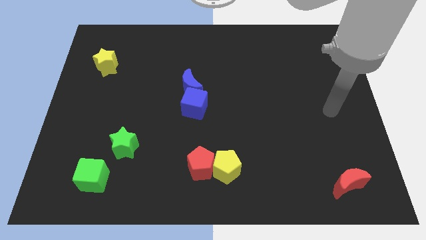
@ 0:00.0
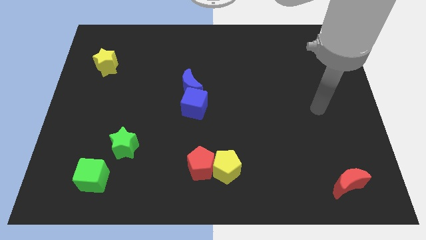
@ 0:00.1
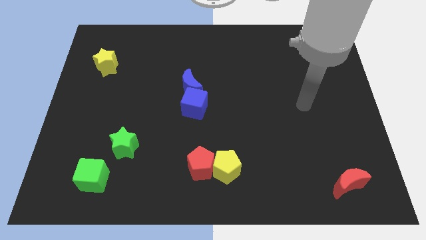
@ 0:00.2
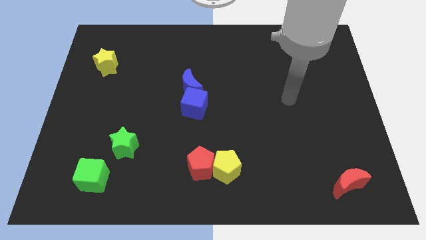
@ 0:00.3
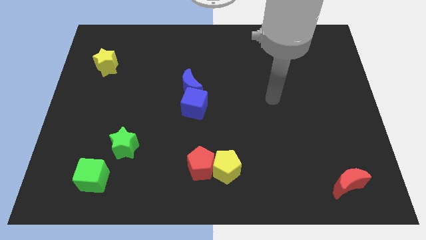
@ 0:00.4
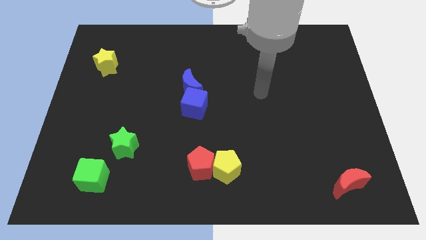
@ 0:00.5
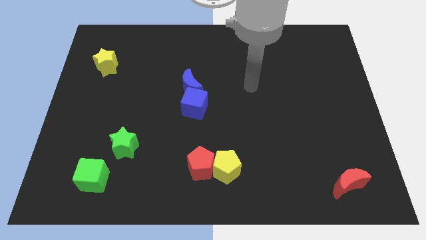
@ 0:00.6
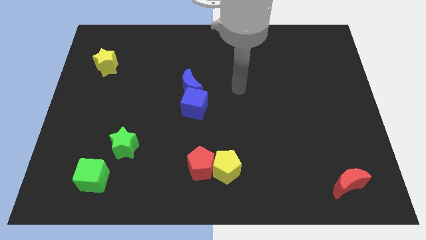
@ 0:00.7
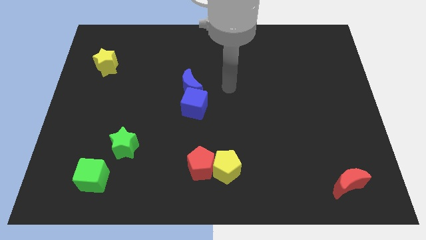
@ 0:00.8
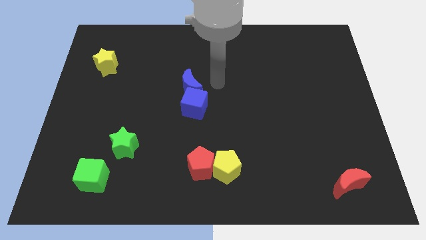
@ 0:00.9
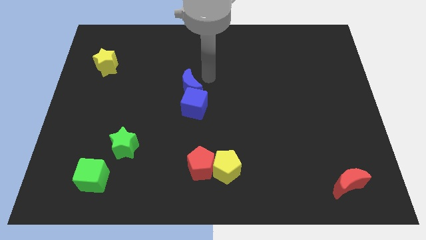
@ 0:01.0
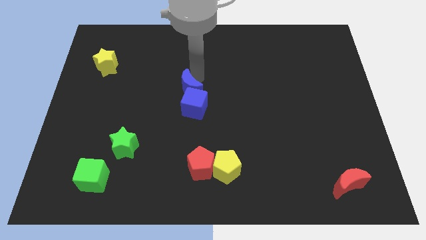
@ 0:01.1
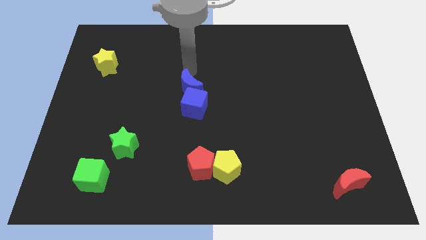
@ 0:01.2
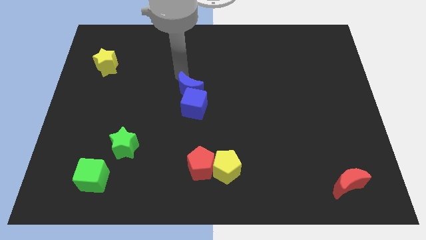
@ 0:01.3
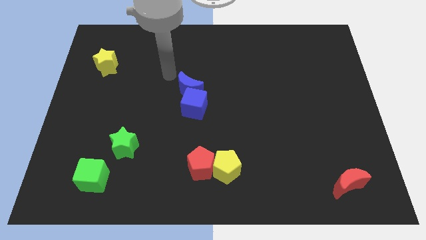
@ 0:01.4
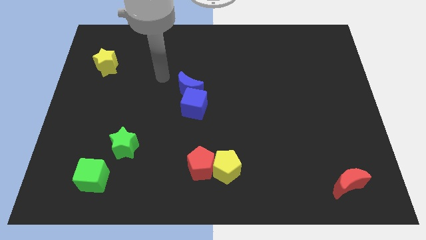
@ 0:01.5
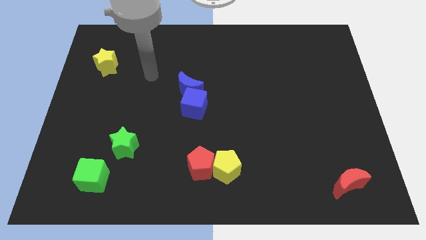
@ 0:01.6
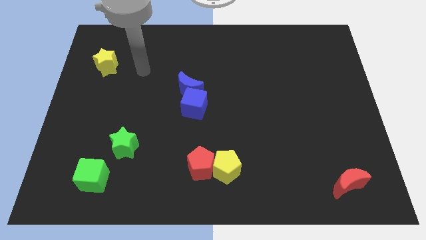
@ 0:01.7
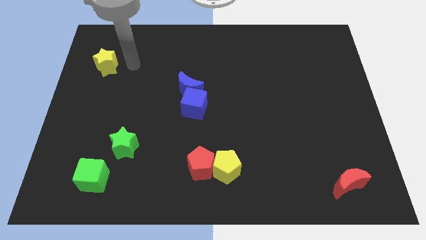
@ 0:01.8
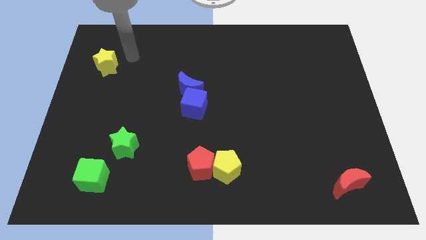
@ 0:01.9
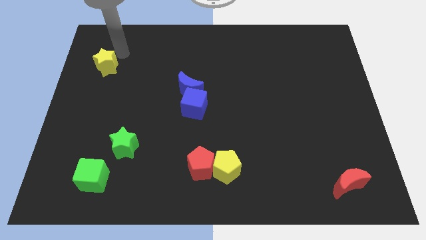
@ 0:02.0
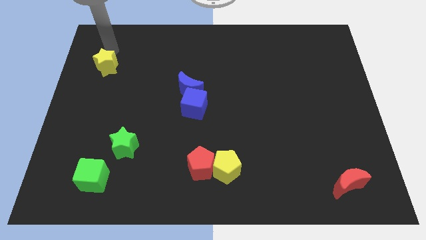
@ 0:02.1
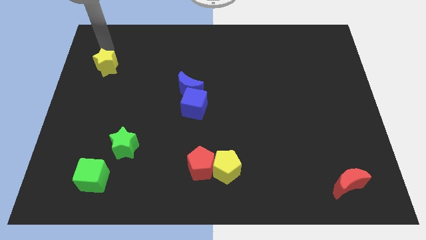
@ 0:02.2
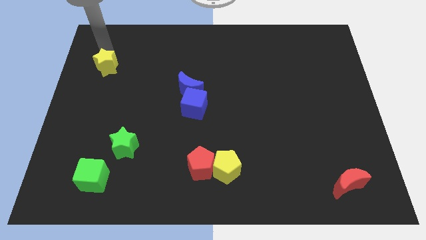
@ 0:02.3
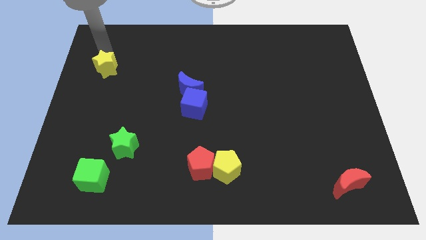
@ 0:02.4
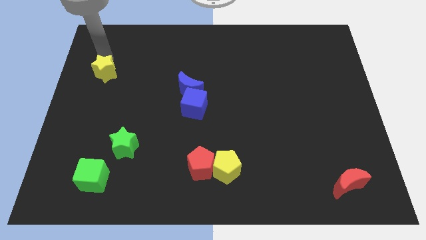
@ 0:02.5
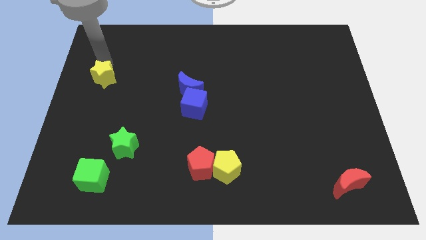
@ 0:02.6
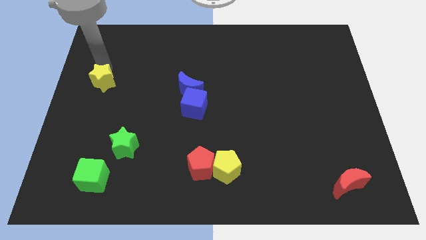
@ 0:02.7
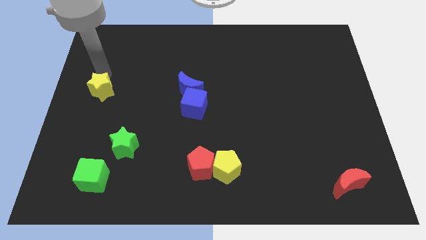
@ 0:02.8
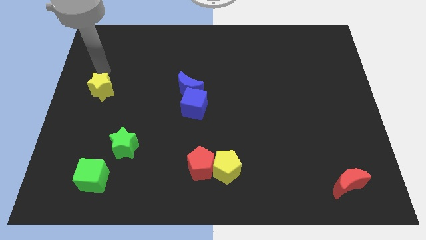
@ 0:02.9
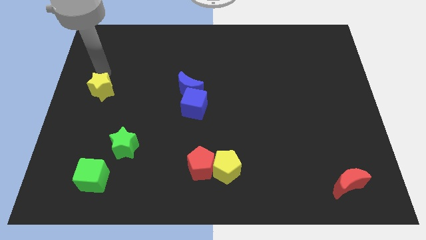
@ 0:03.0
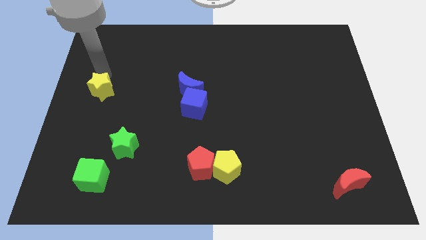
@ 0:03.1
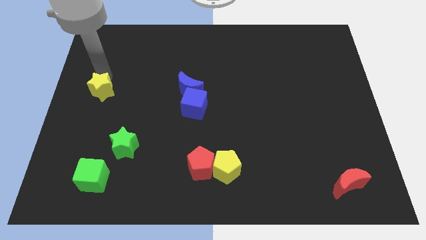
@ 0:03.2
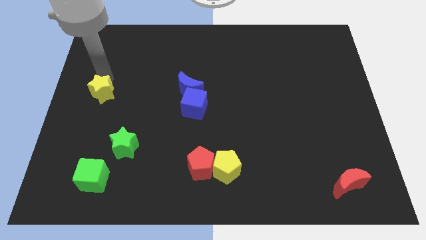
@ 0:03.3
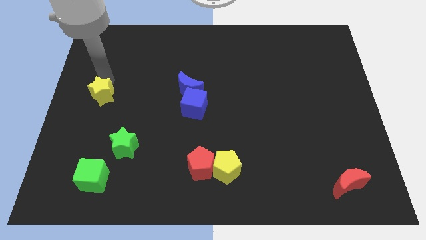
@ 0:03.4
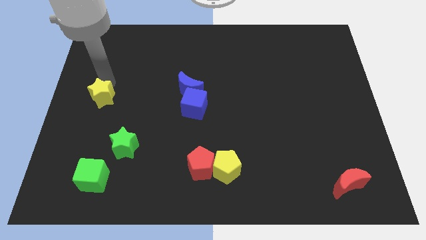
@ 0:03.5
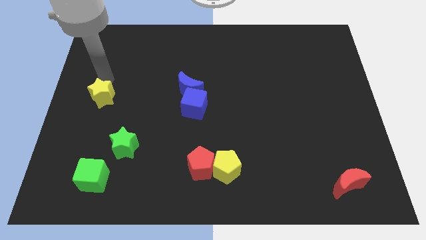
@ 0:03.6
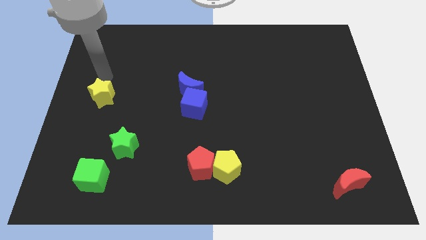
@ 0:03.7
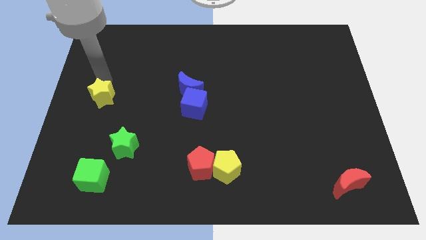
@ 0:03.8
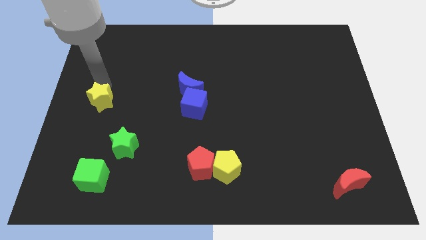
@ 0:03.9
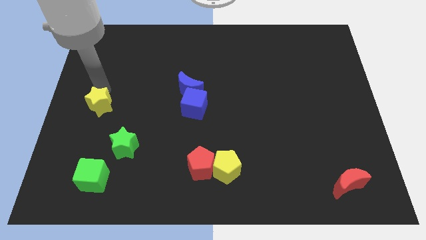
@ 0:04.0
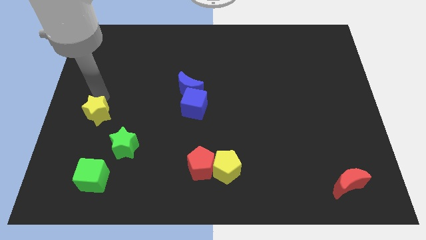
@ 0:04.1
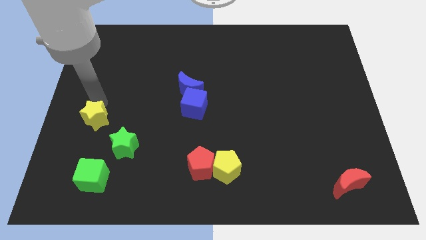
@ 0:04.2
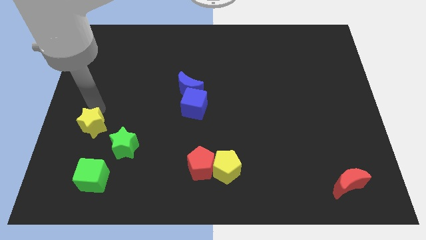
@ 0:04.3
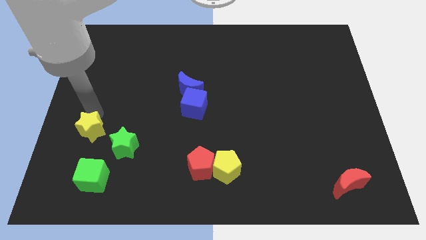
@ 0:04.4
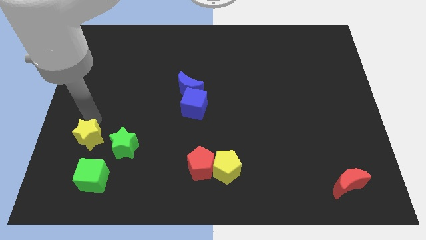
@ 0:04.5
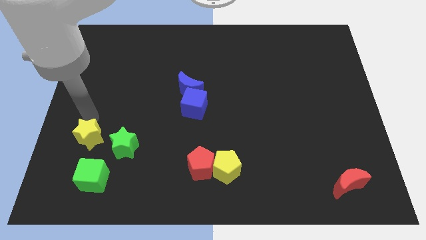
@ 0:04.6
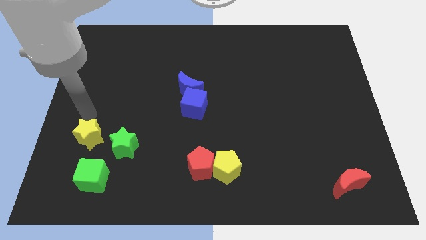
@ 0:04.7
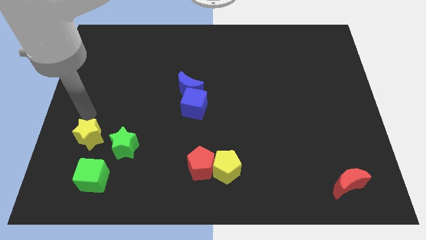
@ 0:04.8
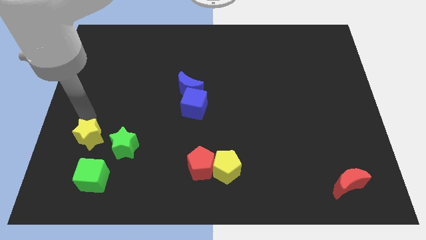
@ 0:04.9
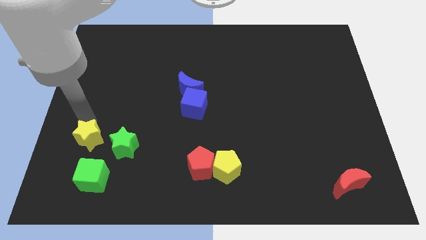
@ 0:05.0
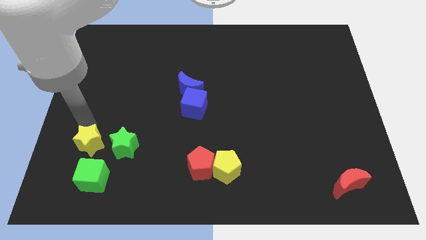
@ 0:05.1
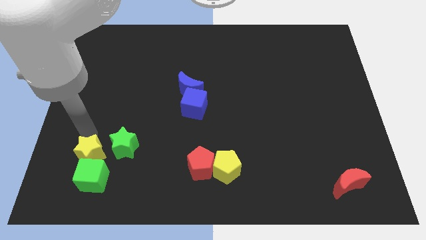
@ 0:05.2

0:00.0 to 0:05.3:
put the yellow star to the green cube

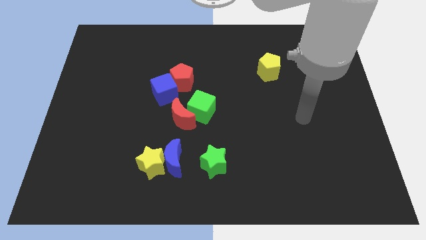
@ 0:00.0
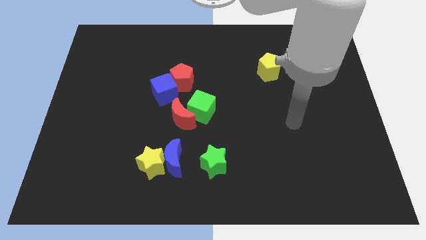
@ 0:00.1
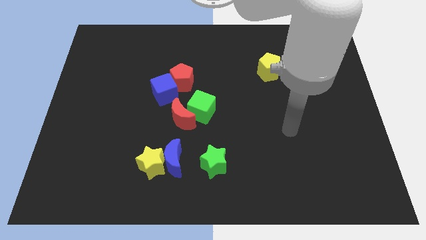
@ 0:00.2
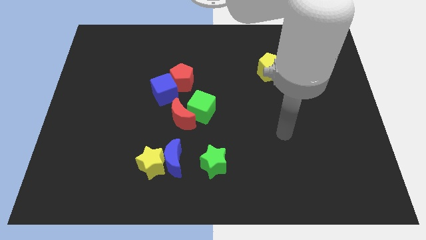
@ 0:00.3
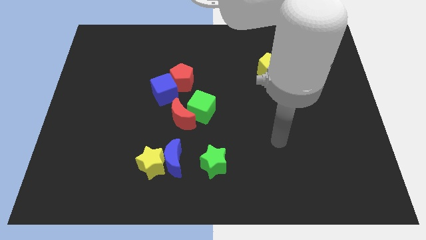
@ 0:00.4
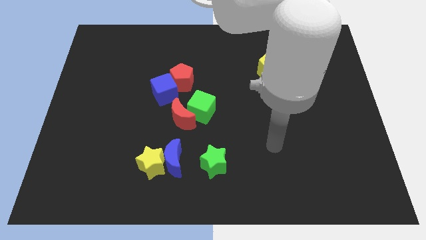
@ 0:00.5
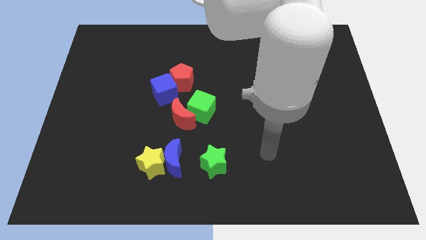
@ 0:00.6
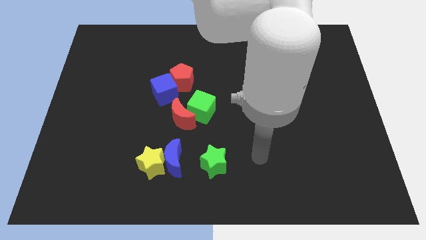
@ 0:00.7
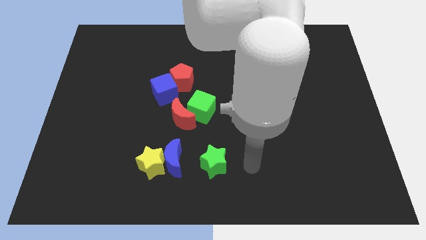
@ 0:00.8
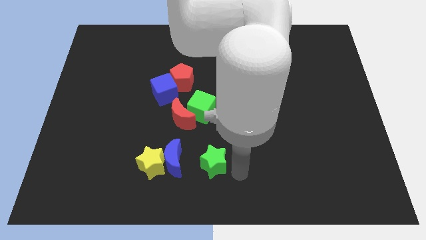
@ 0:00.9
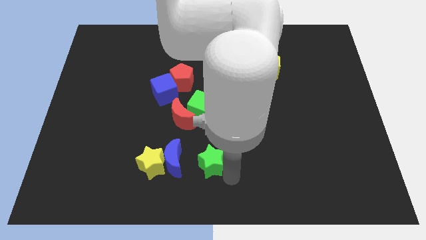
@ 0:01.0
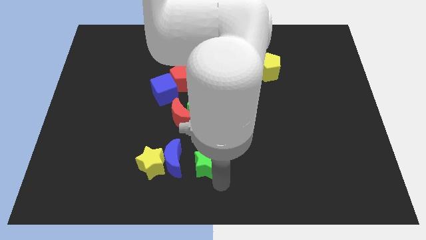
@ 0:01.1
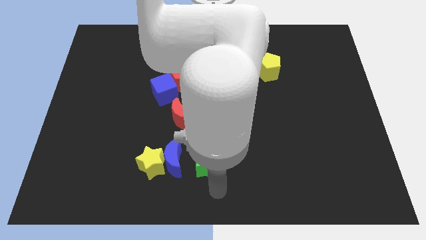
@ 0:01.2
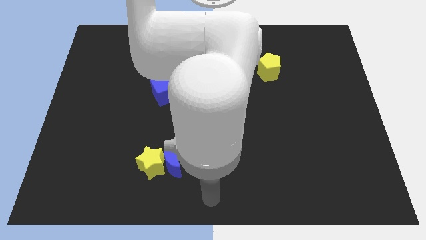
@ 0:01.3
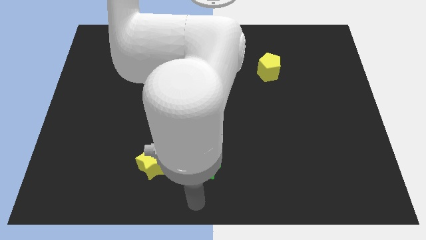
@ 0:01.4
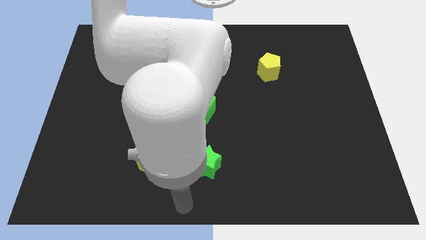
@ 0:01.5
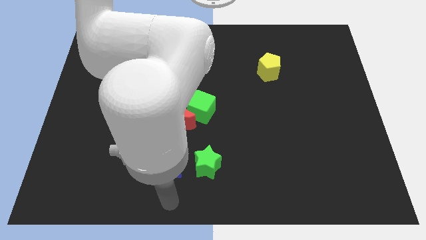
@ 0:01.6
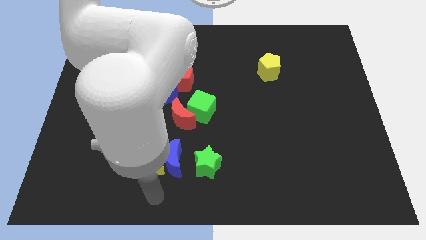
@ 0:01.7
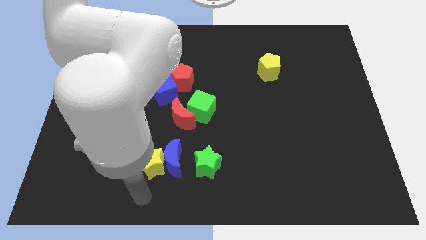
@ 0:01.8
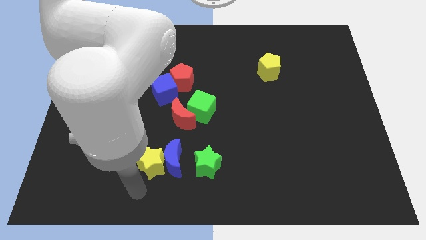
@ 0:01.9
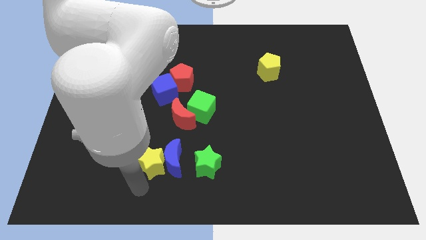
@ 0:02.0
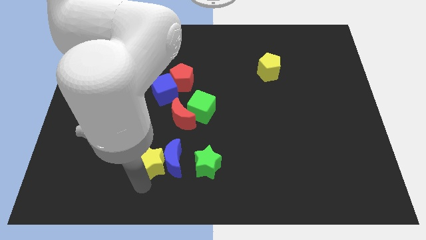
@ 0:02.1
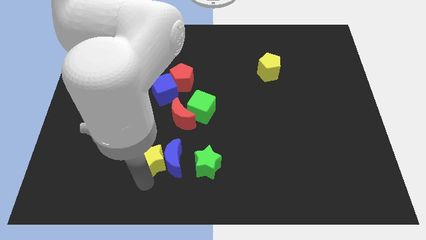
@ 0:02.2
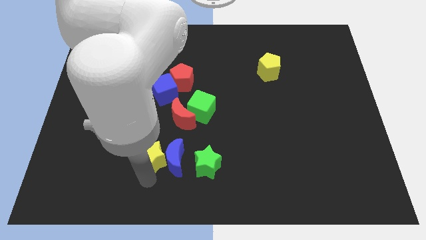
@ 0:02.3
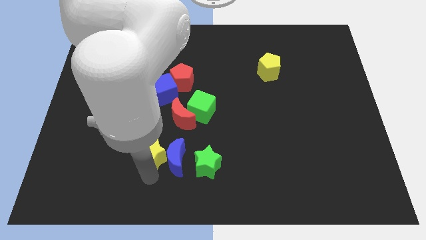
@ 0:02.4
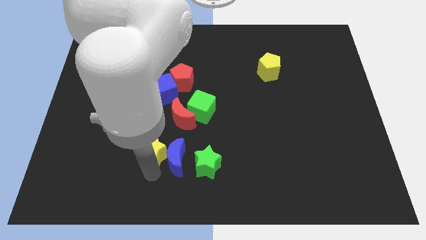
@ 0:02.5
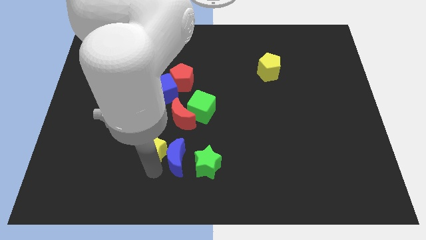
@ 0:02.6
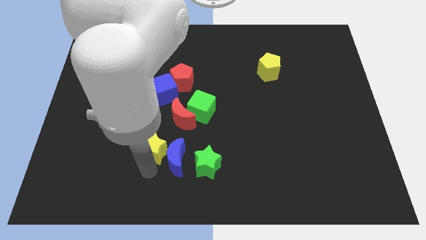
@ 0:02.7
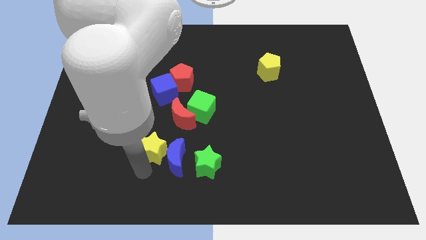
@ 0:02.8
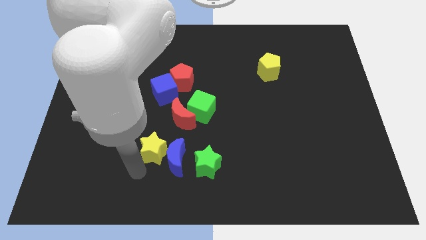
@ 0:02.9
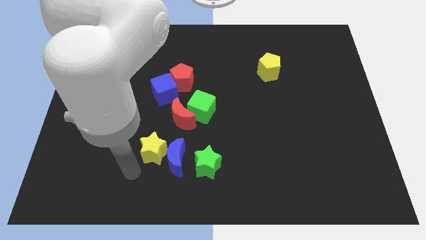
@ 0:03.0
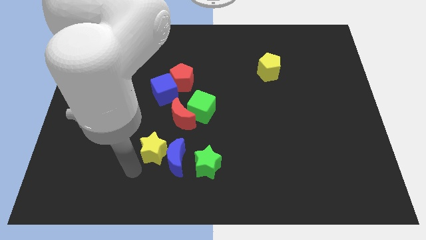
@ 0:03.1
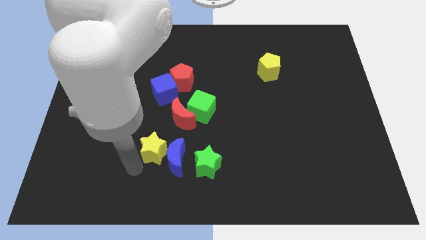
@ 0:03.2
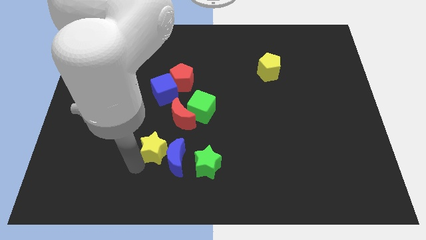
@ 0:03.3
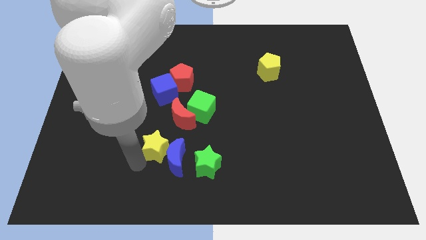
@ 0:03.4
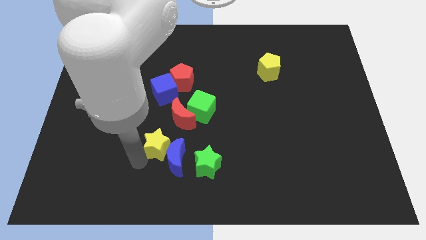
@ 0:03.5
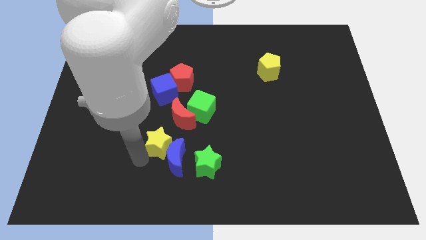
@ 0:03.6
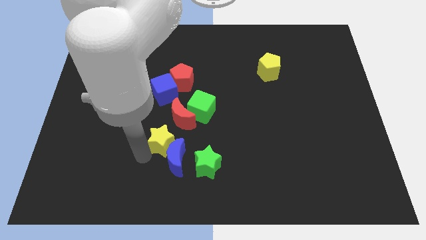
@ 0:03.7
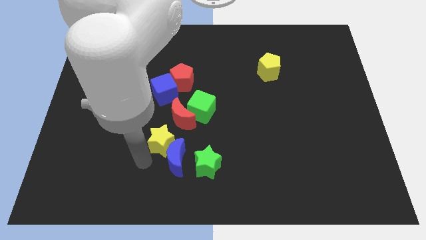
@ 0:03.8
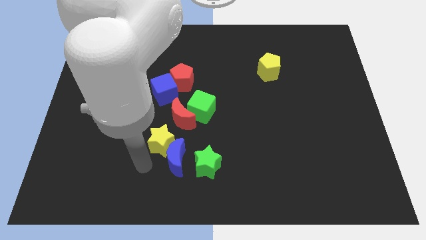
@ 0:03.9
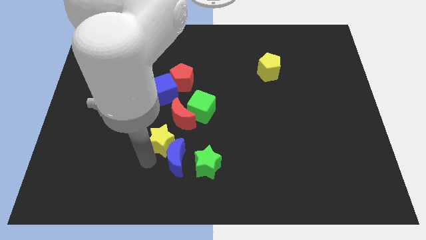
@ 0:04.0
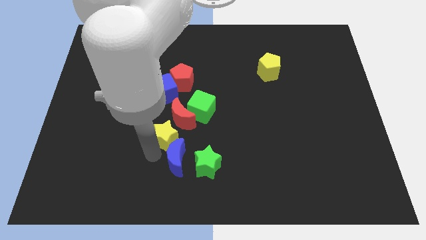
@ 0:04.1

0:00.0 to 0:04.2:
slide the yellow star close to the red moon
